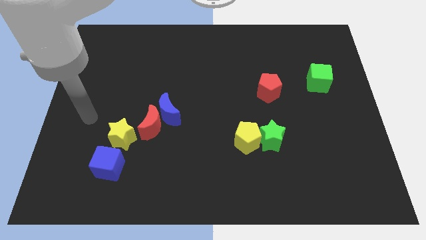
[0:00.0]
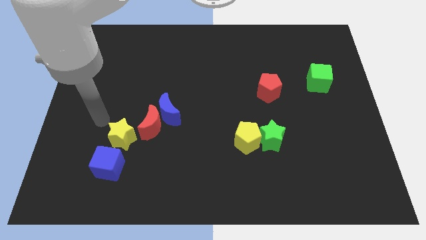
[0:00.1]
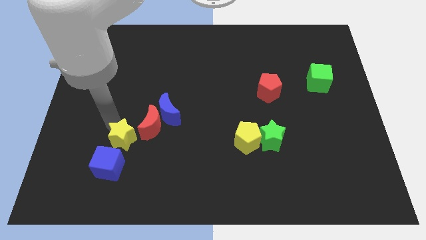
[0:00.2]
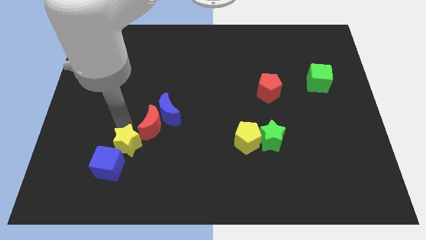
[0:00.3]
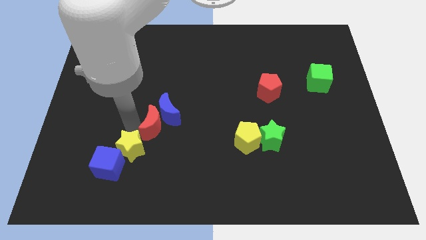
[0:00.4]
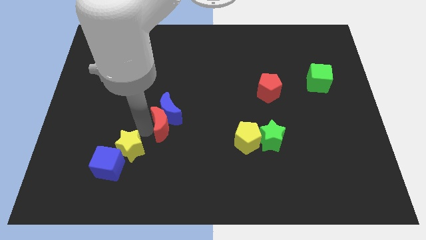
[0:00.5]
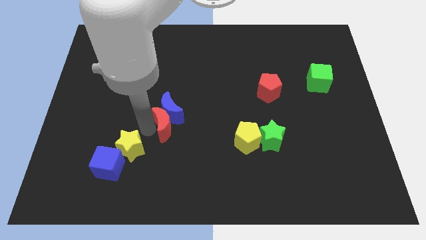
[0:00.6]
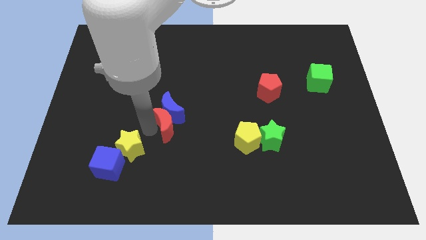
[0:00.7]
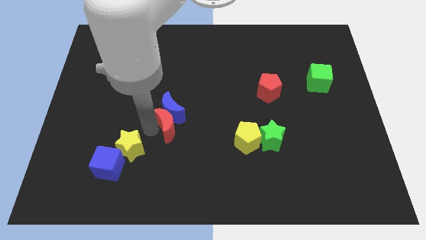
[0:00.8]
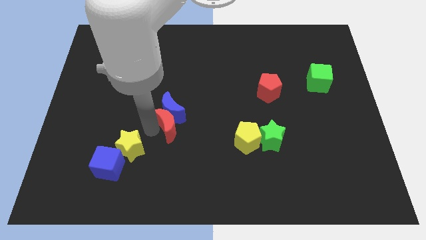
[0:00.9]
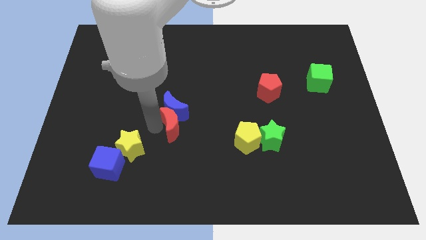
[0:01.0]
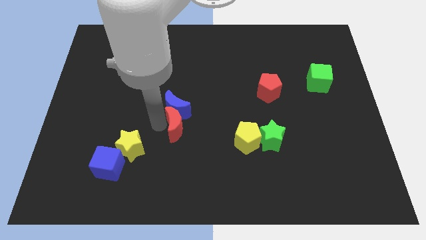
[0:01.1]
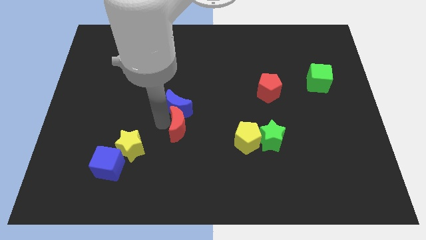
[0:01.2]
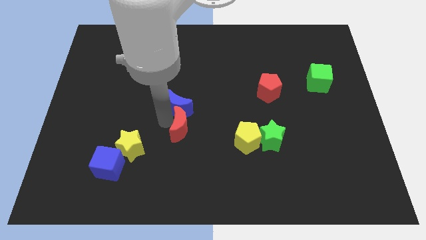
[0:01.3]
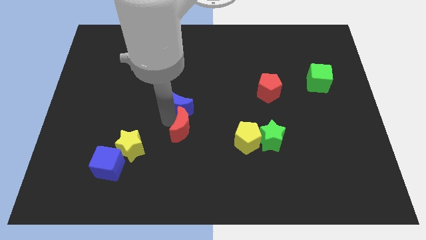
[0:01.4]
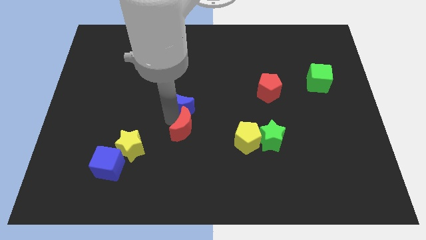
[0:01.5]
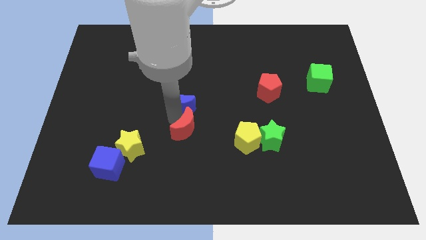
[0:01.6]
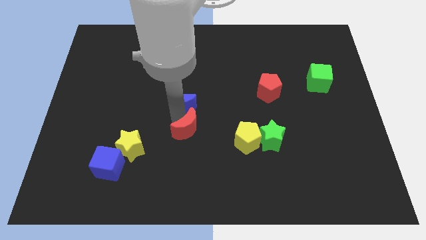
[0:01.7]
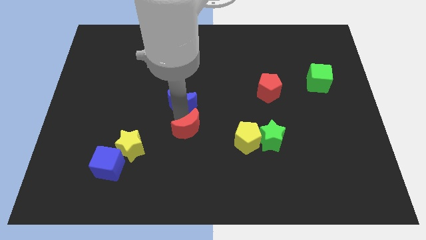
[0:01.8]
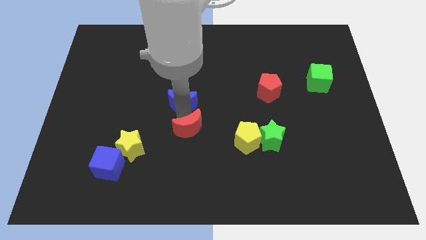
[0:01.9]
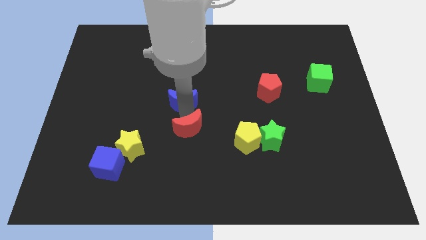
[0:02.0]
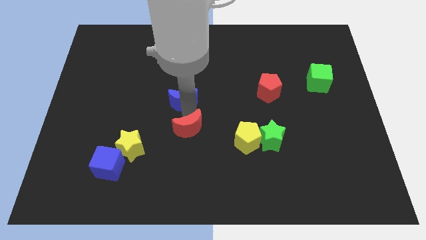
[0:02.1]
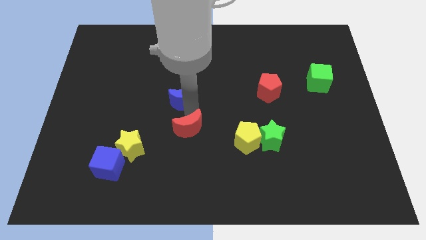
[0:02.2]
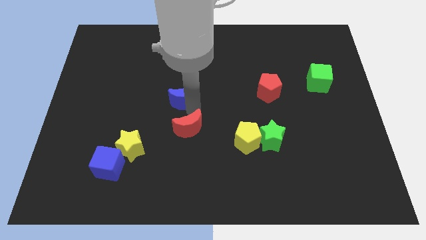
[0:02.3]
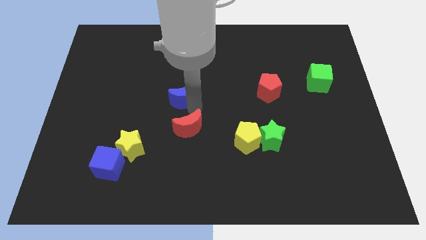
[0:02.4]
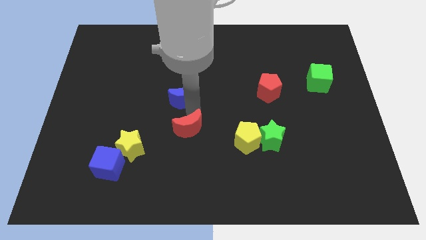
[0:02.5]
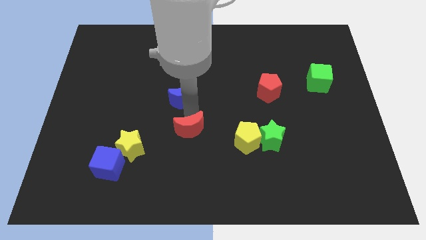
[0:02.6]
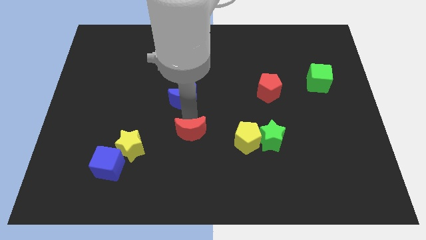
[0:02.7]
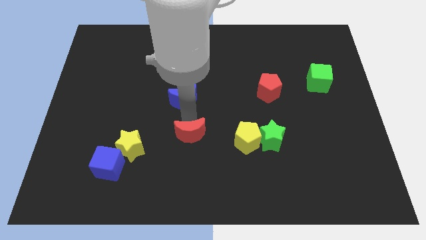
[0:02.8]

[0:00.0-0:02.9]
move the blue moon away from the red moon

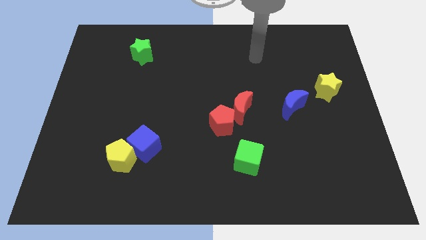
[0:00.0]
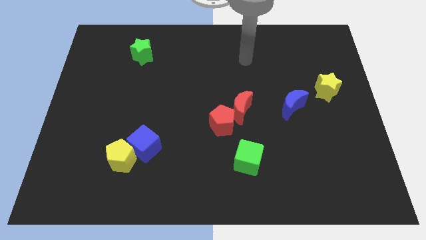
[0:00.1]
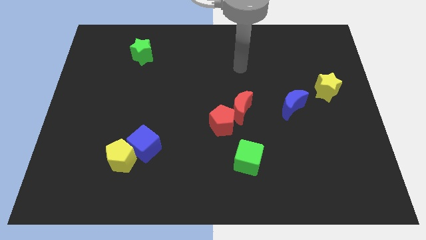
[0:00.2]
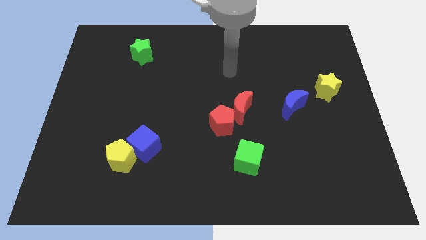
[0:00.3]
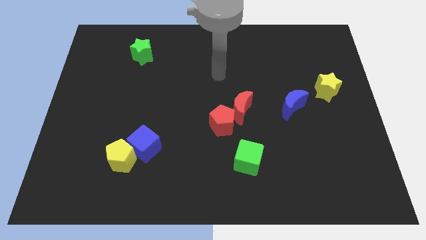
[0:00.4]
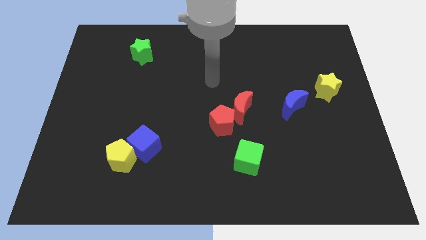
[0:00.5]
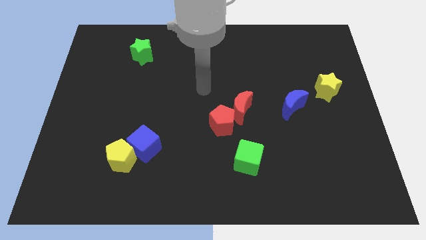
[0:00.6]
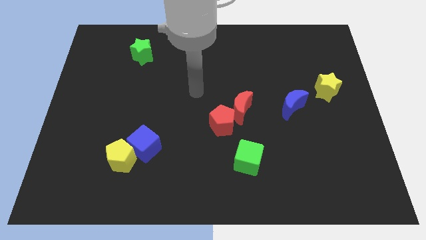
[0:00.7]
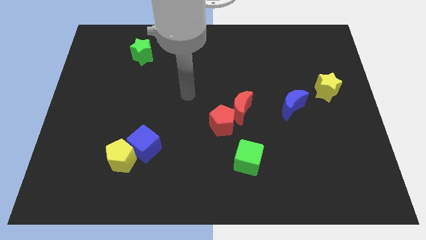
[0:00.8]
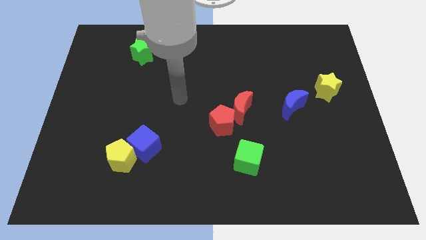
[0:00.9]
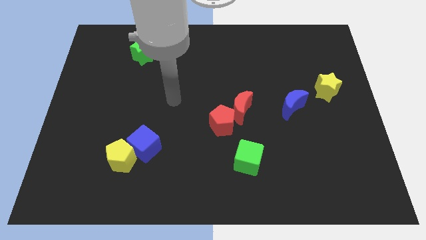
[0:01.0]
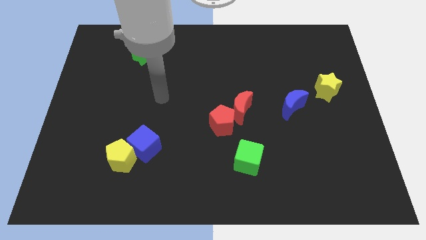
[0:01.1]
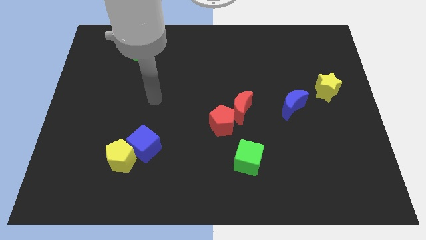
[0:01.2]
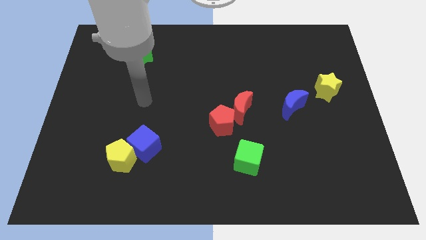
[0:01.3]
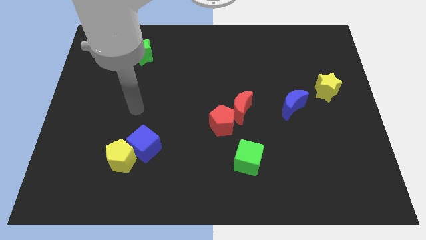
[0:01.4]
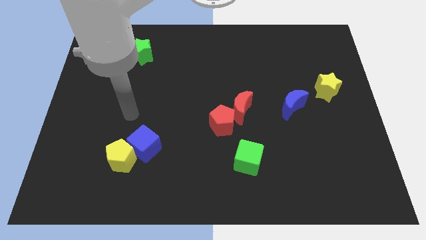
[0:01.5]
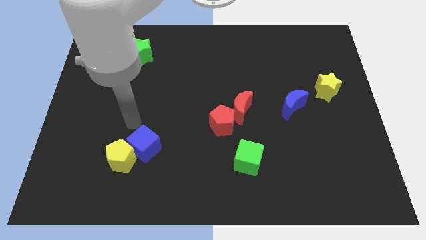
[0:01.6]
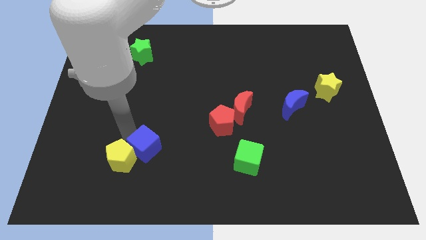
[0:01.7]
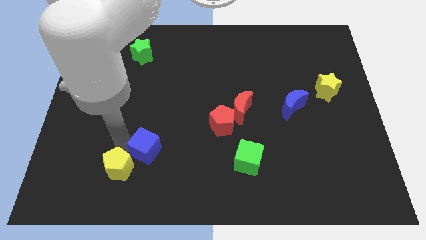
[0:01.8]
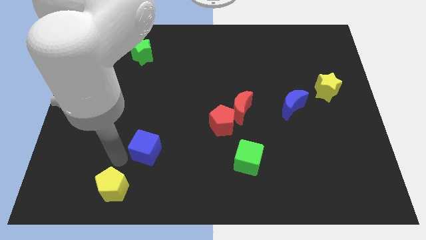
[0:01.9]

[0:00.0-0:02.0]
separate the blue cube from the yellow pentagon

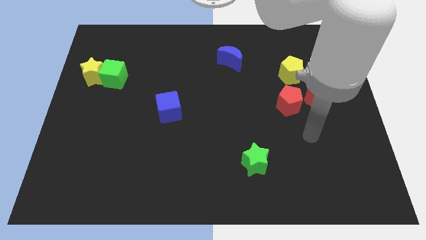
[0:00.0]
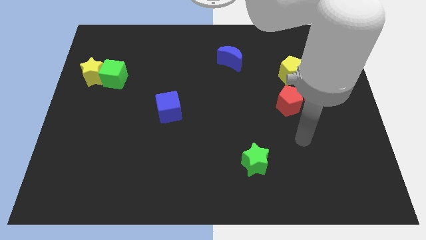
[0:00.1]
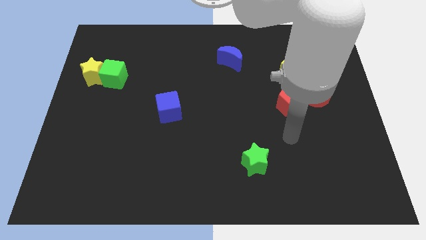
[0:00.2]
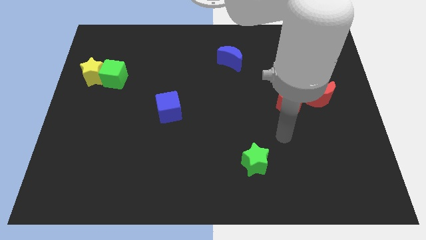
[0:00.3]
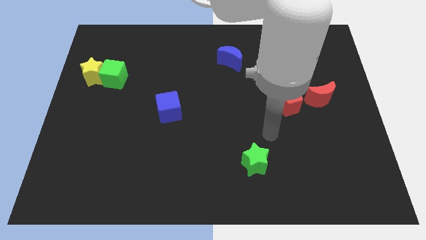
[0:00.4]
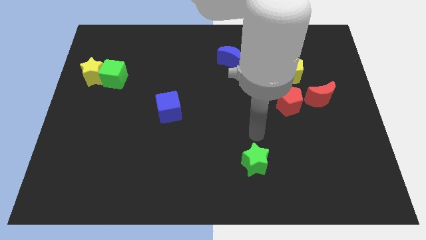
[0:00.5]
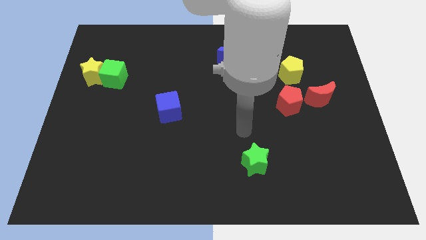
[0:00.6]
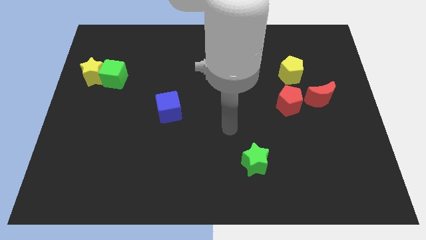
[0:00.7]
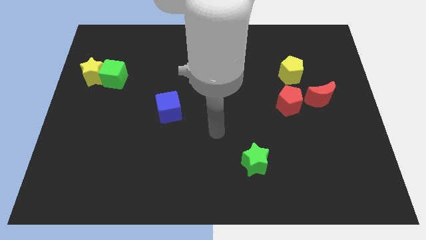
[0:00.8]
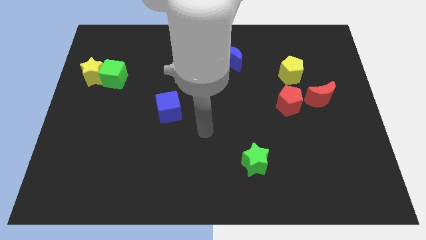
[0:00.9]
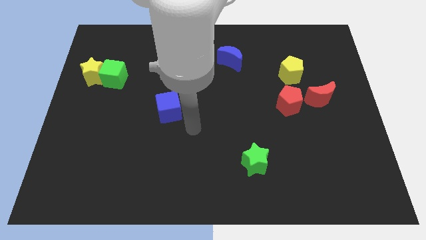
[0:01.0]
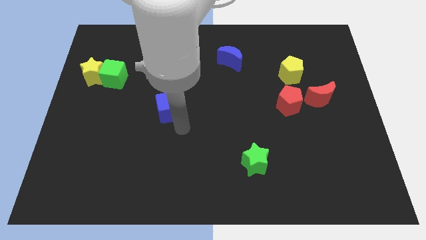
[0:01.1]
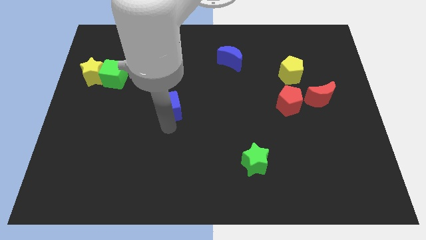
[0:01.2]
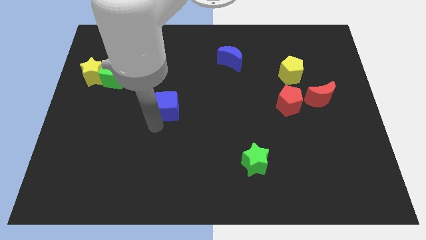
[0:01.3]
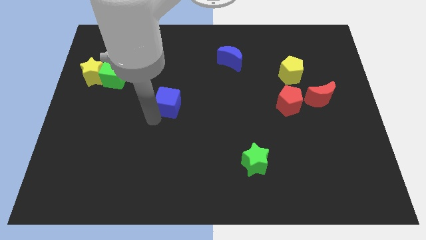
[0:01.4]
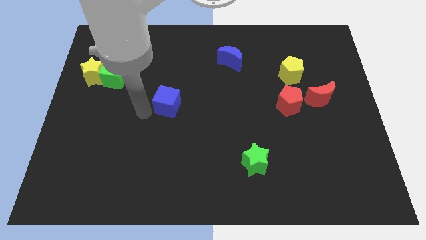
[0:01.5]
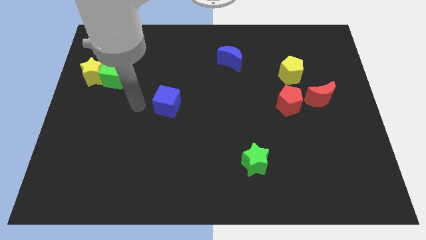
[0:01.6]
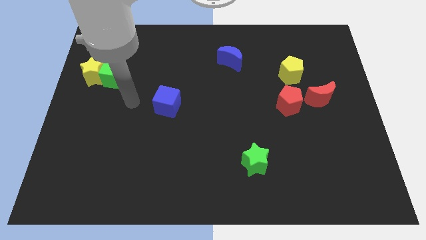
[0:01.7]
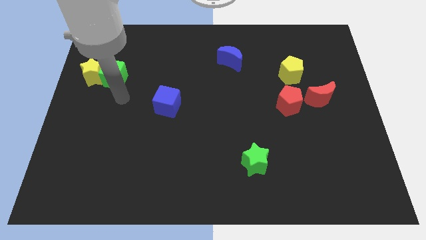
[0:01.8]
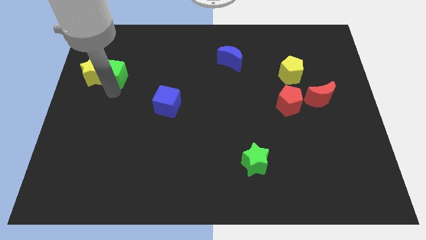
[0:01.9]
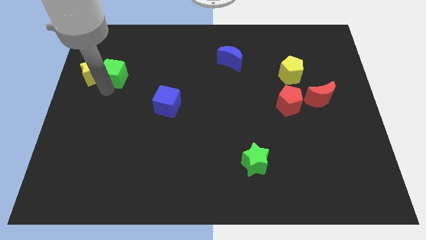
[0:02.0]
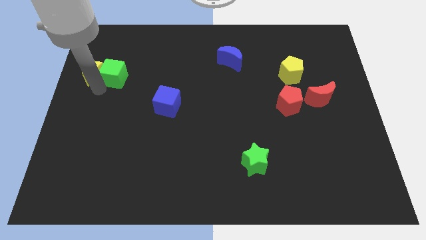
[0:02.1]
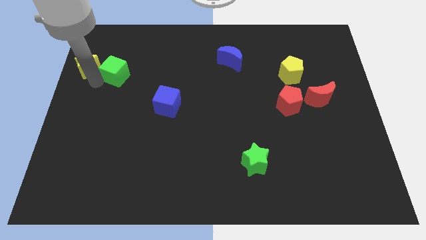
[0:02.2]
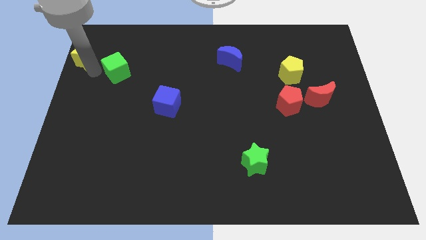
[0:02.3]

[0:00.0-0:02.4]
pull the green cube apart from the yellow star

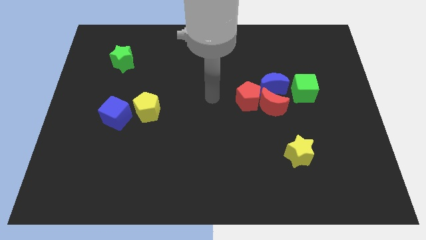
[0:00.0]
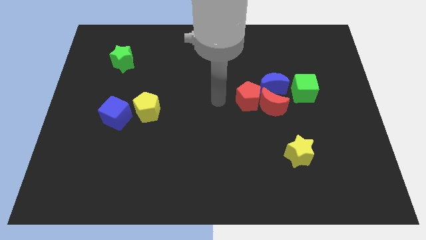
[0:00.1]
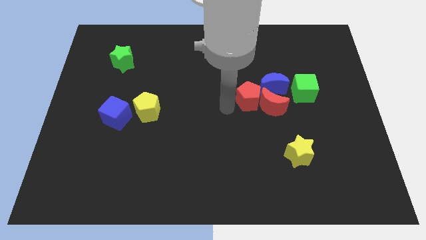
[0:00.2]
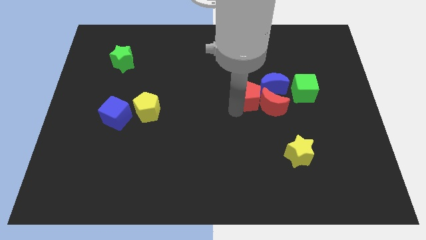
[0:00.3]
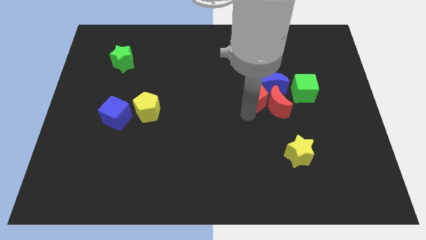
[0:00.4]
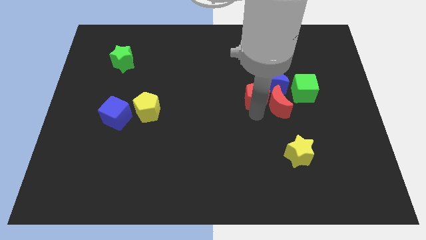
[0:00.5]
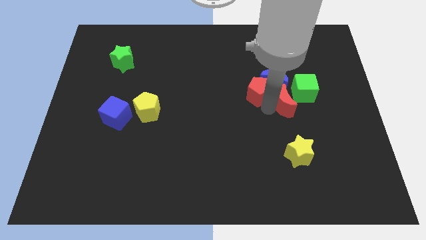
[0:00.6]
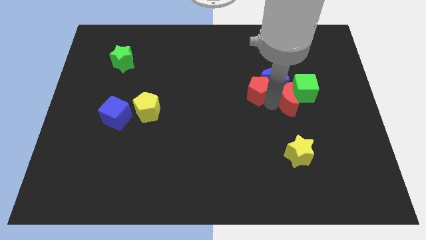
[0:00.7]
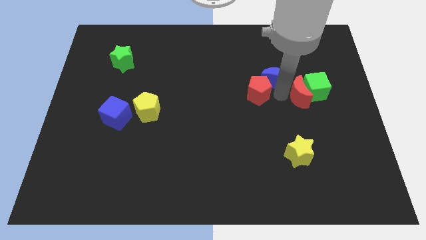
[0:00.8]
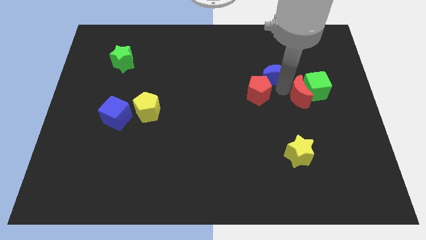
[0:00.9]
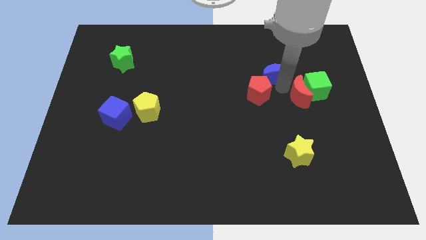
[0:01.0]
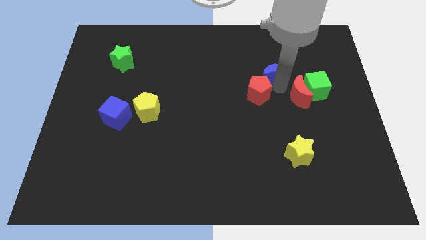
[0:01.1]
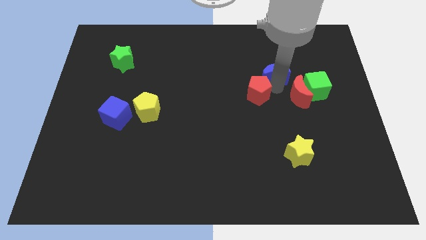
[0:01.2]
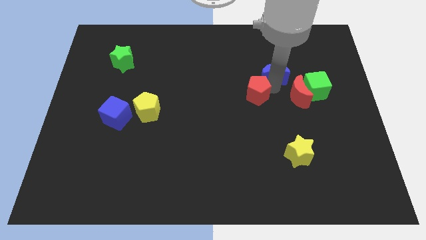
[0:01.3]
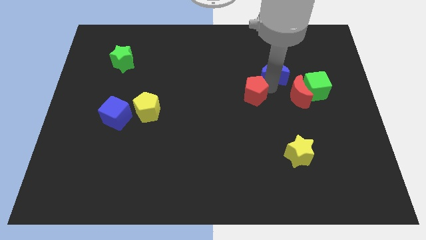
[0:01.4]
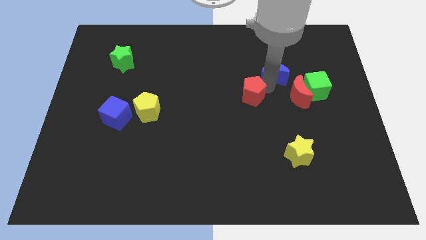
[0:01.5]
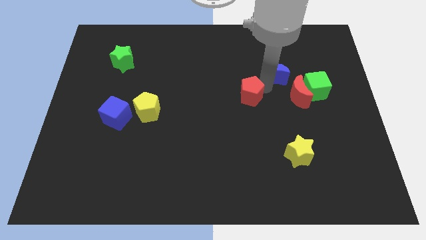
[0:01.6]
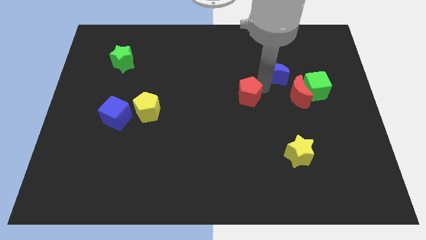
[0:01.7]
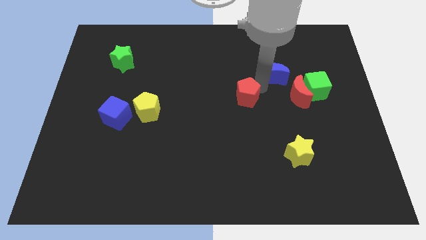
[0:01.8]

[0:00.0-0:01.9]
separate the red pentagon from the red moon and blue moon

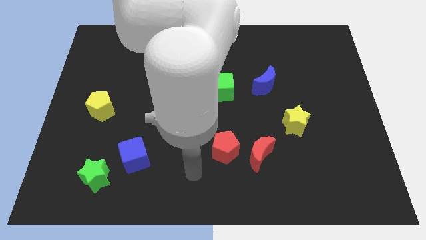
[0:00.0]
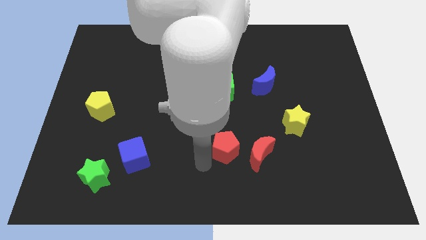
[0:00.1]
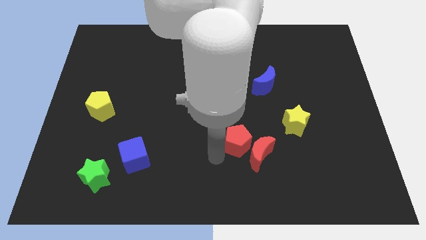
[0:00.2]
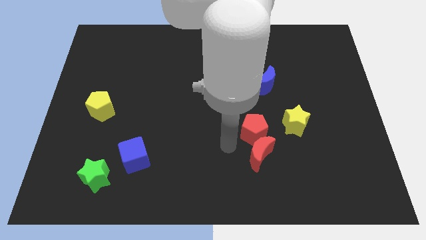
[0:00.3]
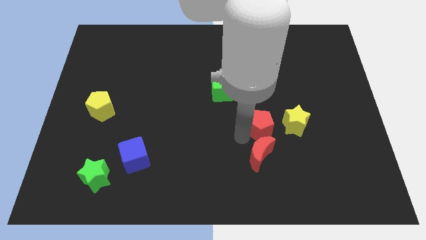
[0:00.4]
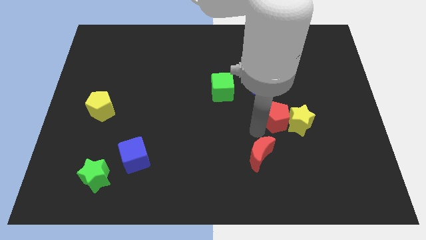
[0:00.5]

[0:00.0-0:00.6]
pull the red moon apart from the red pentagon
